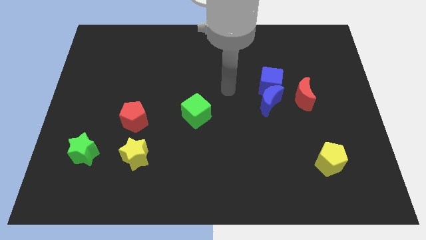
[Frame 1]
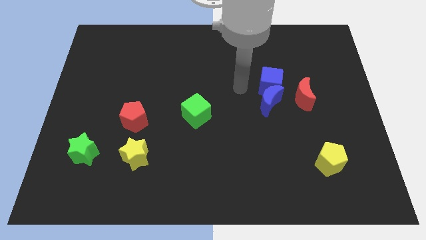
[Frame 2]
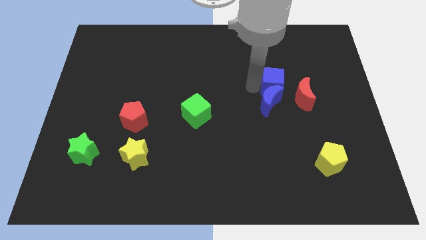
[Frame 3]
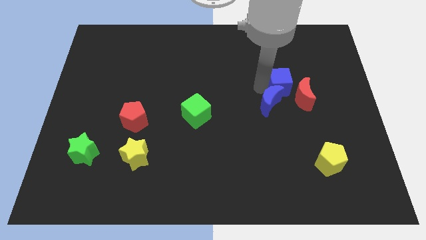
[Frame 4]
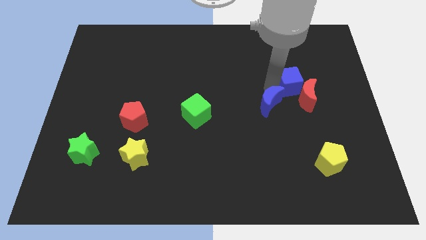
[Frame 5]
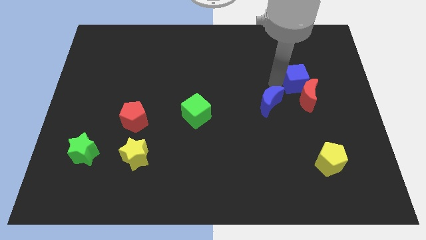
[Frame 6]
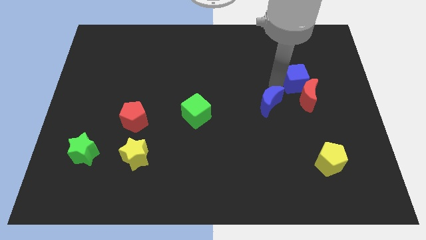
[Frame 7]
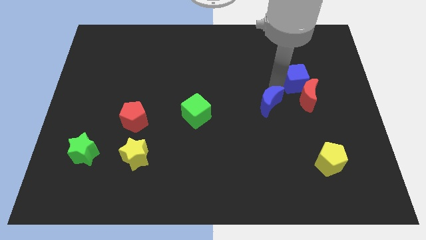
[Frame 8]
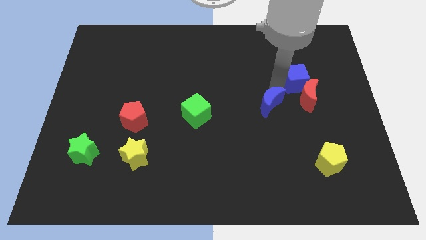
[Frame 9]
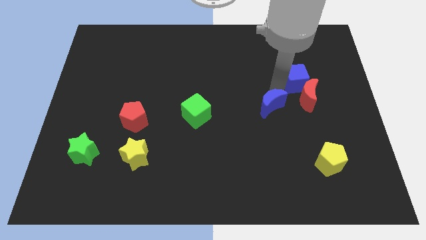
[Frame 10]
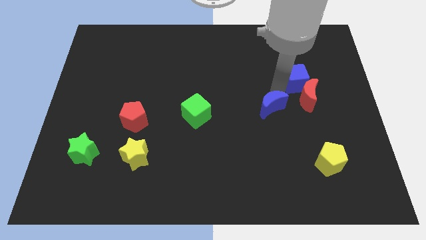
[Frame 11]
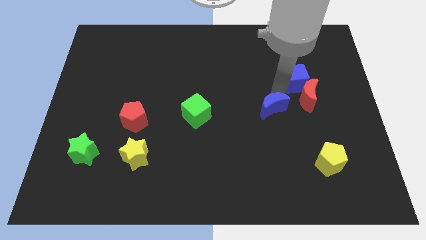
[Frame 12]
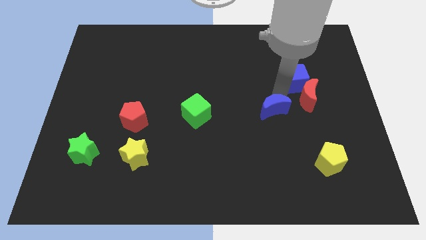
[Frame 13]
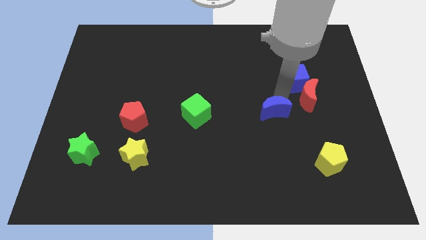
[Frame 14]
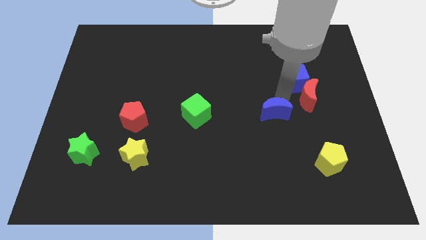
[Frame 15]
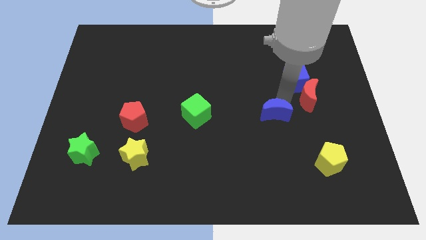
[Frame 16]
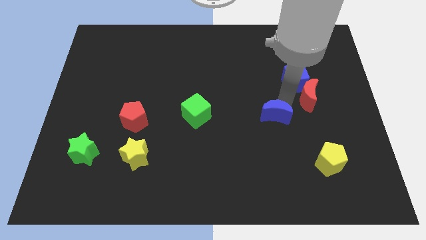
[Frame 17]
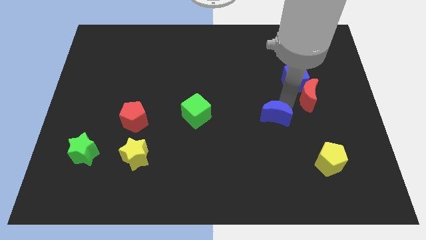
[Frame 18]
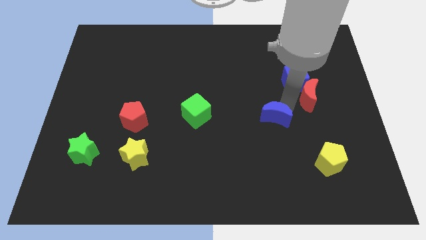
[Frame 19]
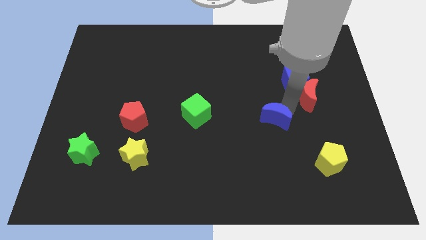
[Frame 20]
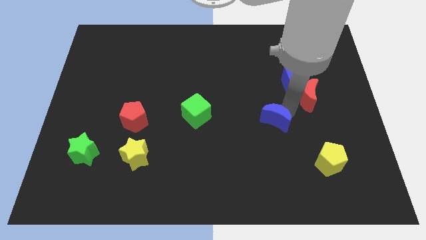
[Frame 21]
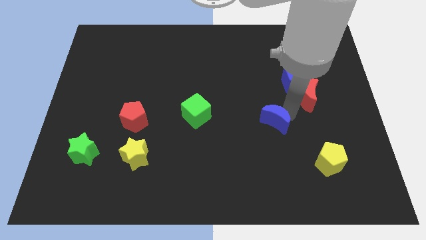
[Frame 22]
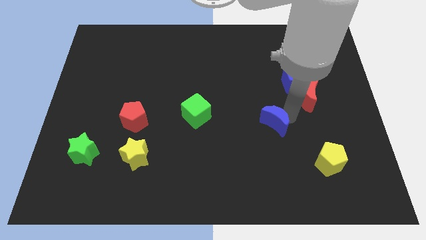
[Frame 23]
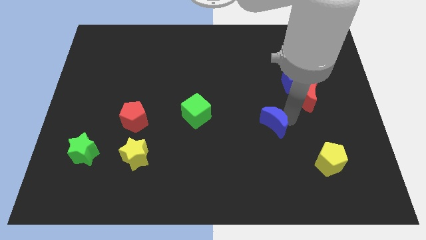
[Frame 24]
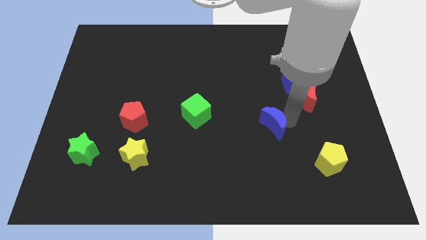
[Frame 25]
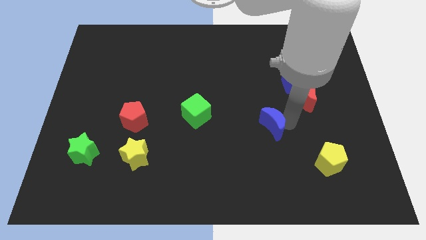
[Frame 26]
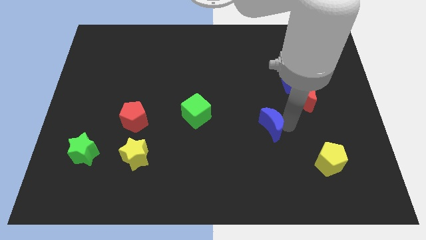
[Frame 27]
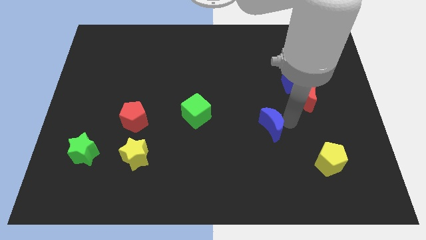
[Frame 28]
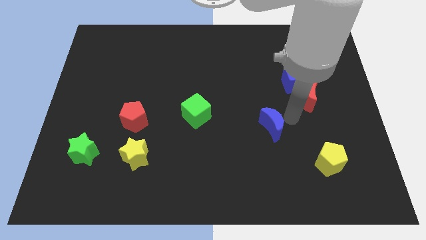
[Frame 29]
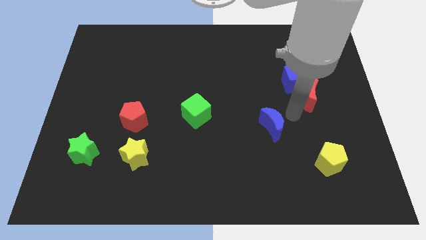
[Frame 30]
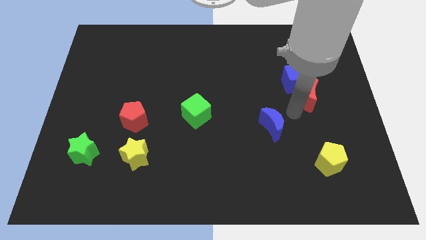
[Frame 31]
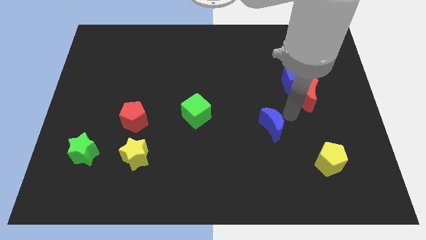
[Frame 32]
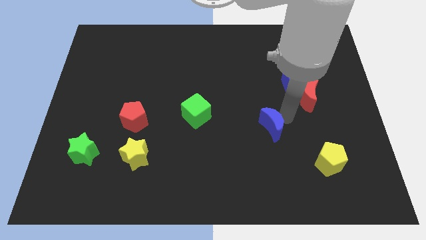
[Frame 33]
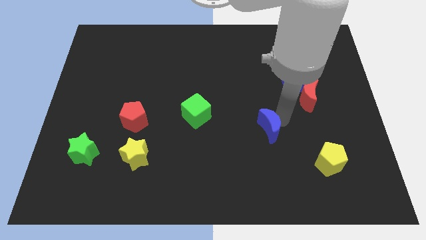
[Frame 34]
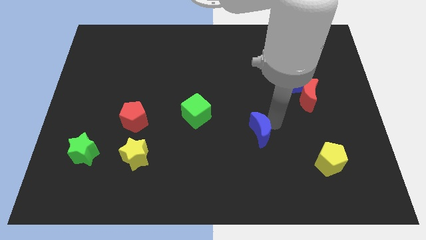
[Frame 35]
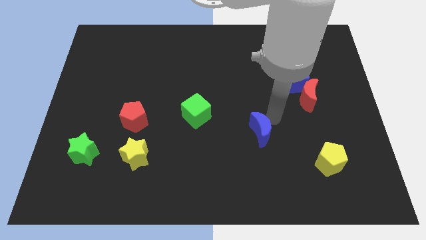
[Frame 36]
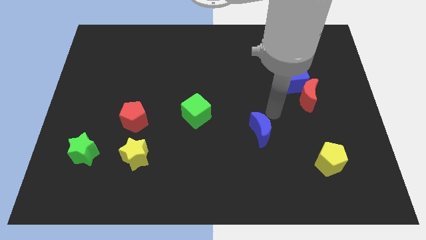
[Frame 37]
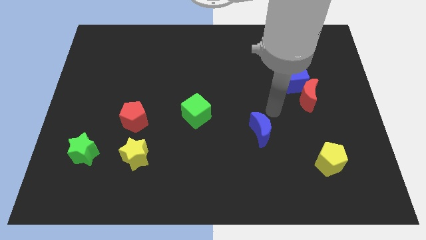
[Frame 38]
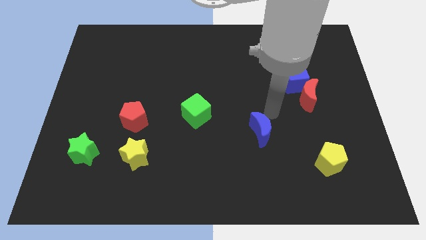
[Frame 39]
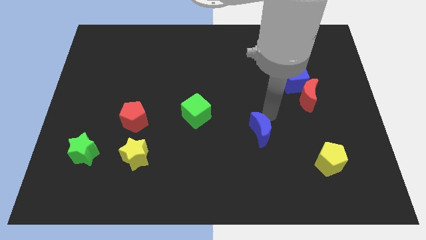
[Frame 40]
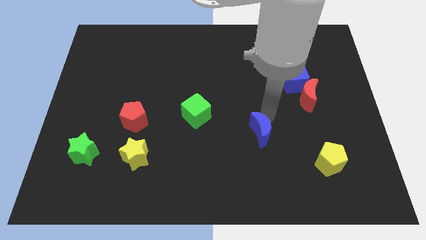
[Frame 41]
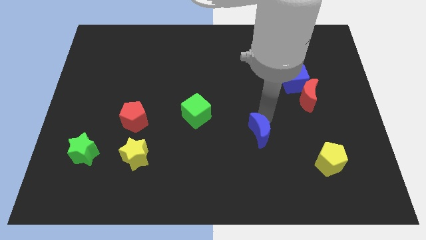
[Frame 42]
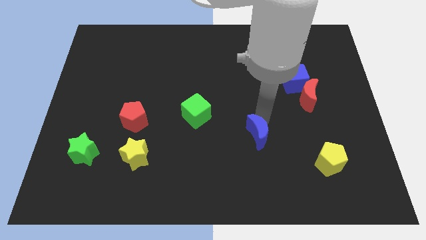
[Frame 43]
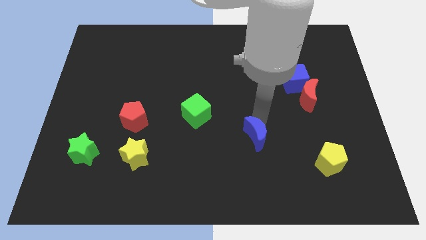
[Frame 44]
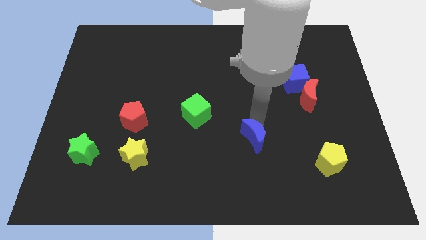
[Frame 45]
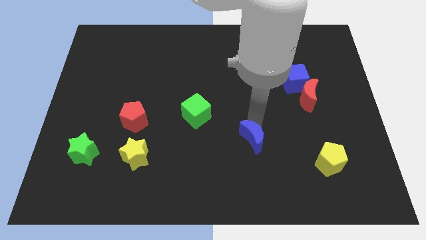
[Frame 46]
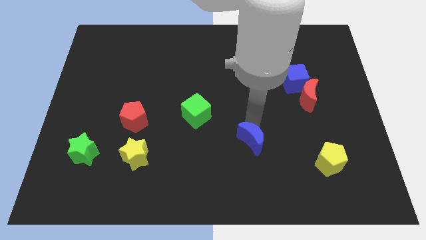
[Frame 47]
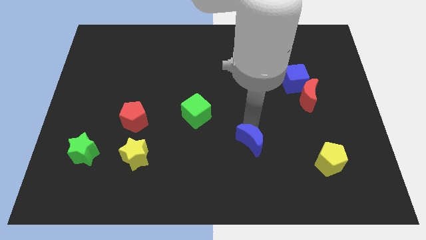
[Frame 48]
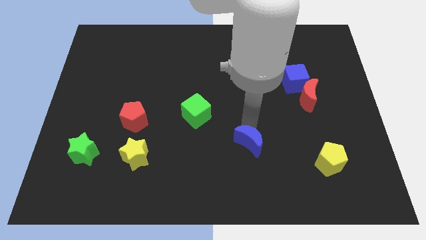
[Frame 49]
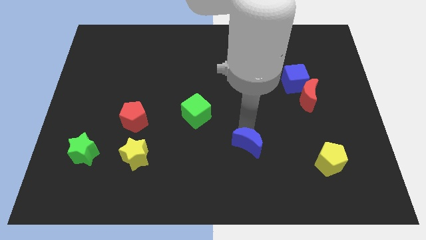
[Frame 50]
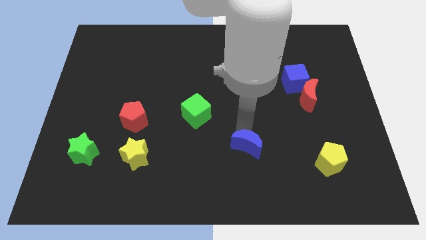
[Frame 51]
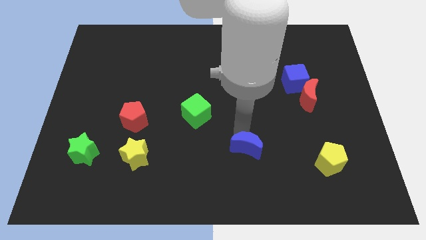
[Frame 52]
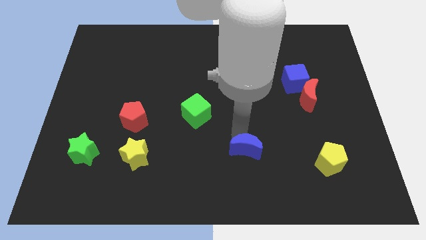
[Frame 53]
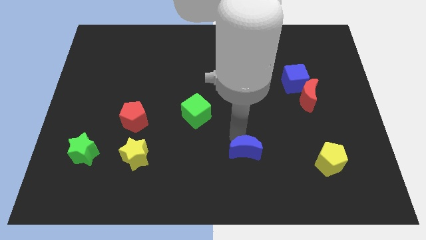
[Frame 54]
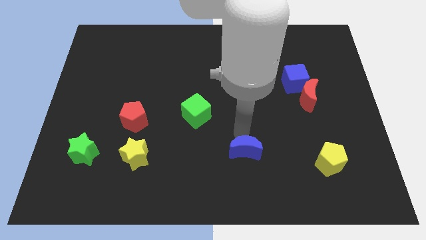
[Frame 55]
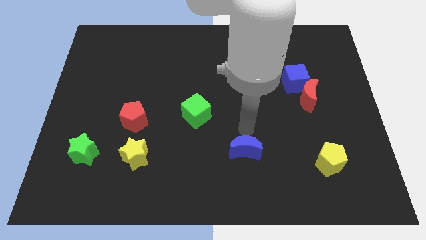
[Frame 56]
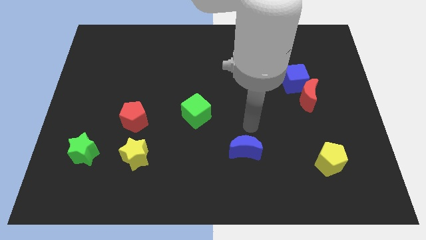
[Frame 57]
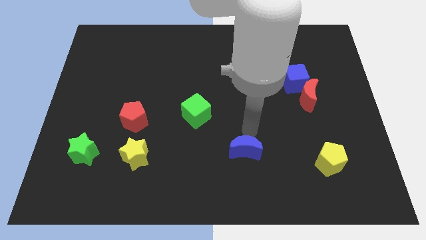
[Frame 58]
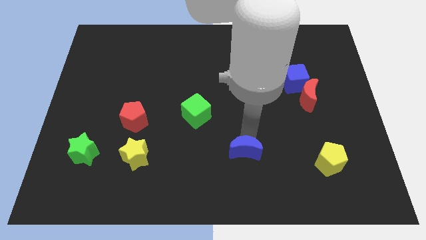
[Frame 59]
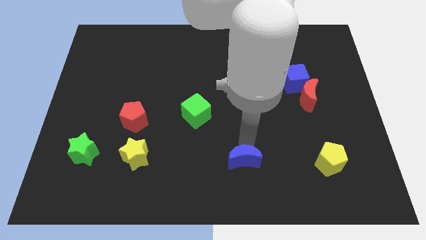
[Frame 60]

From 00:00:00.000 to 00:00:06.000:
put the blue moon to the bottom side

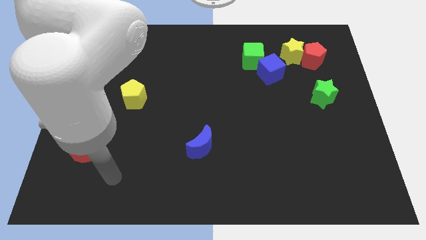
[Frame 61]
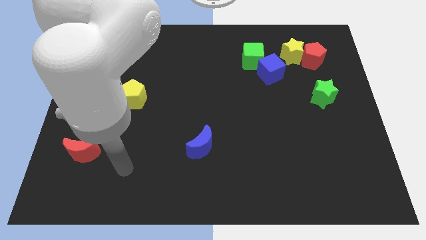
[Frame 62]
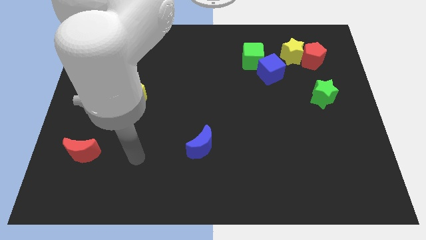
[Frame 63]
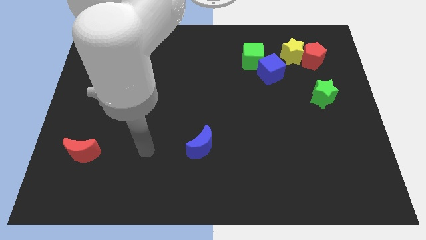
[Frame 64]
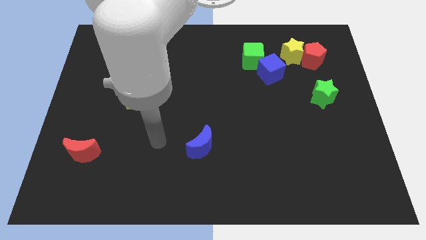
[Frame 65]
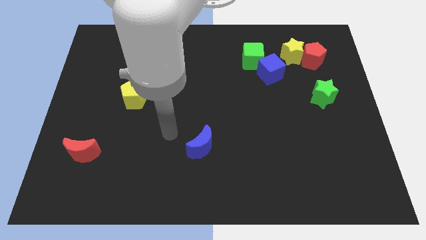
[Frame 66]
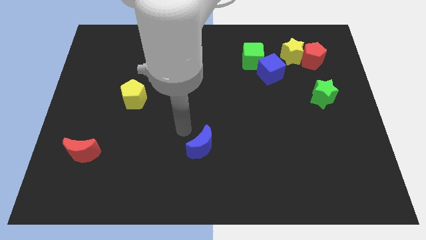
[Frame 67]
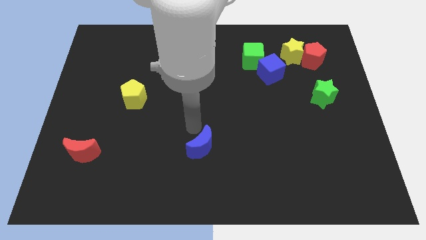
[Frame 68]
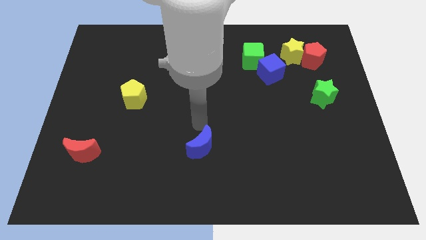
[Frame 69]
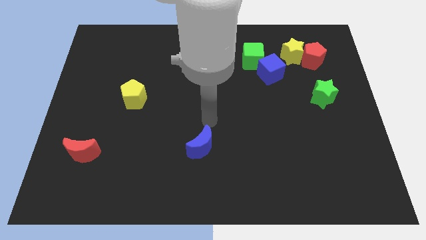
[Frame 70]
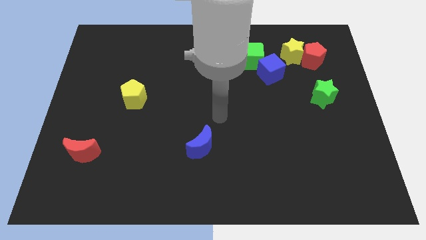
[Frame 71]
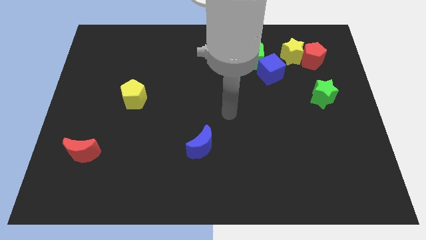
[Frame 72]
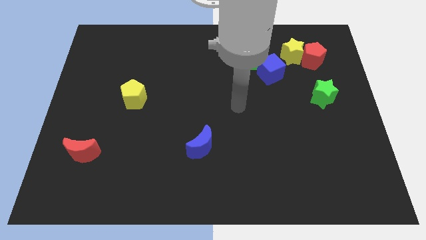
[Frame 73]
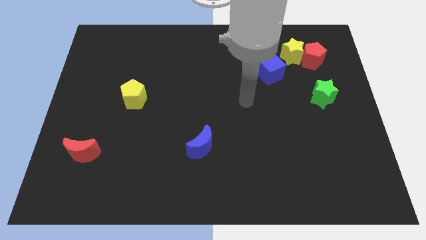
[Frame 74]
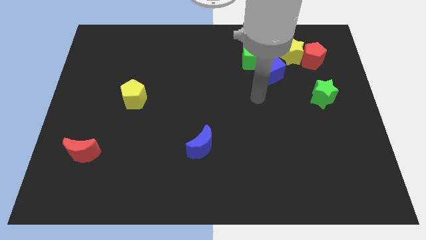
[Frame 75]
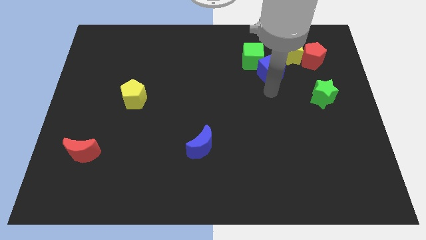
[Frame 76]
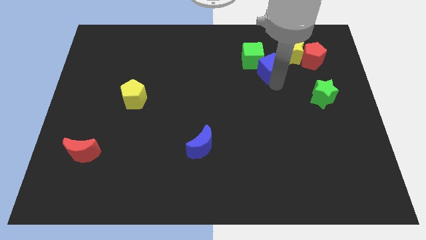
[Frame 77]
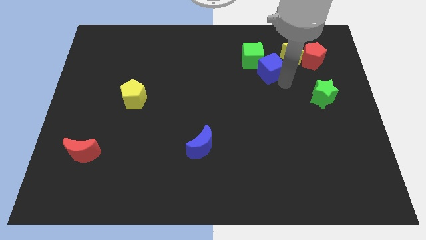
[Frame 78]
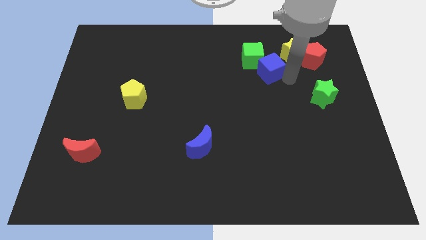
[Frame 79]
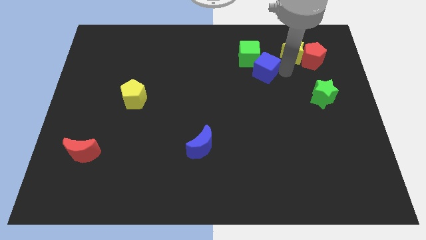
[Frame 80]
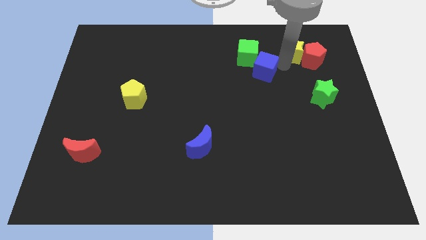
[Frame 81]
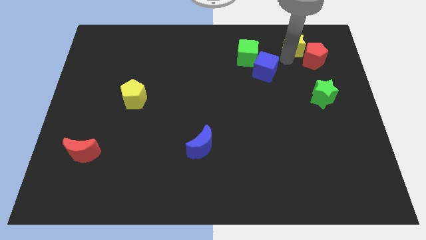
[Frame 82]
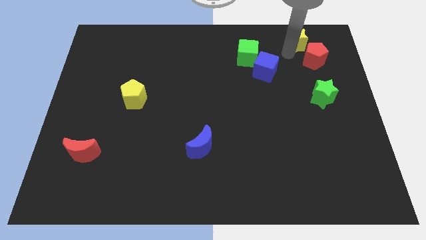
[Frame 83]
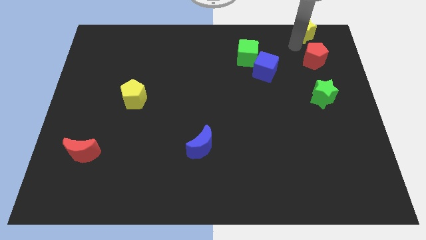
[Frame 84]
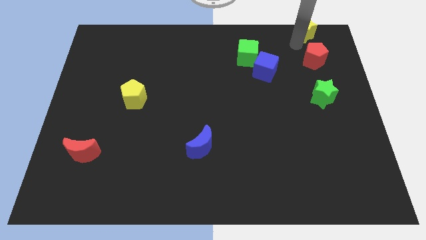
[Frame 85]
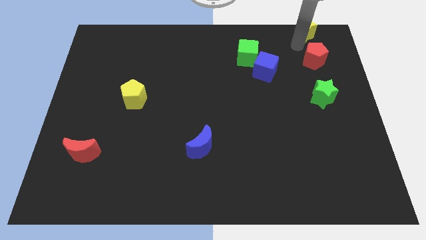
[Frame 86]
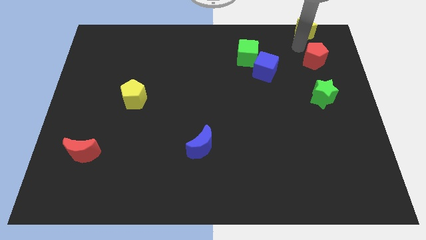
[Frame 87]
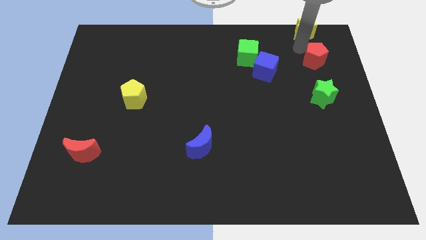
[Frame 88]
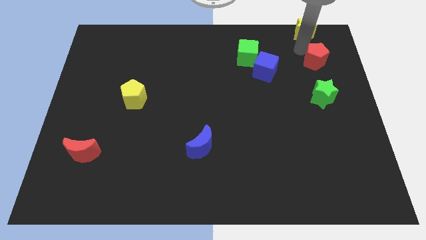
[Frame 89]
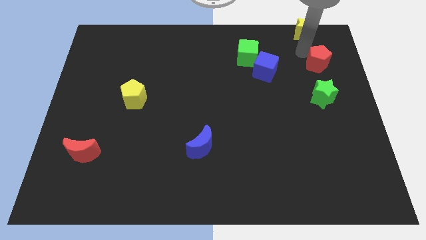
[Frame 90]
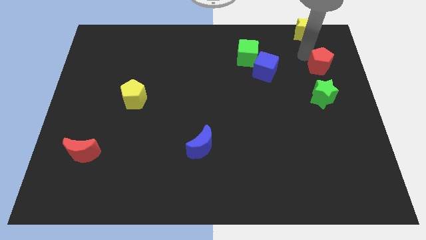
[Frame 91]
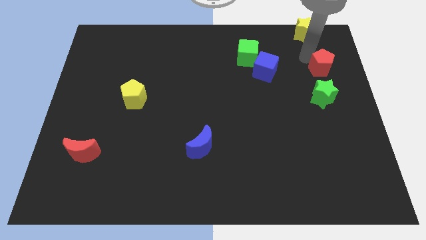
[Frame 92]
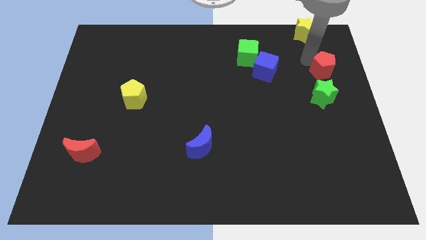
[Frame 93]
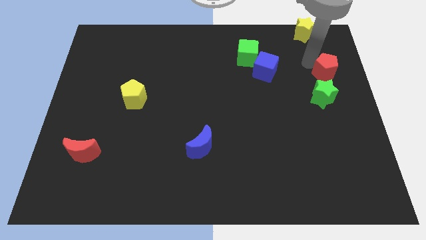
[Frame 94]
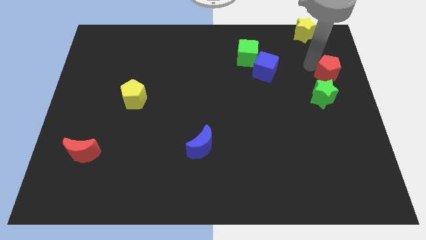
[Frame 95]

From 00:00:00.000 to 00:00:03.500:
move the red pentagon to the right side
